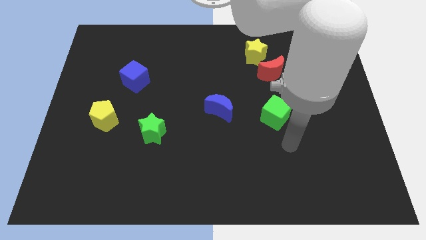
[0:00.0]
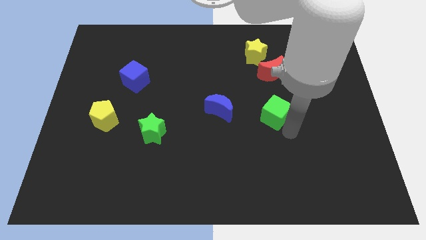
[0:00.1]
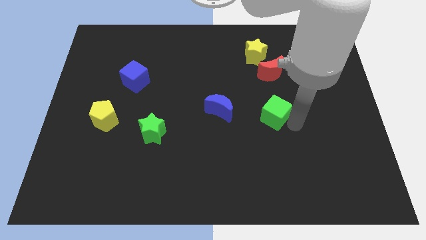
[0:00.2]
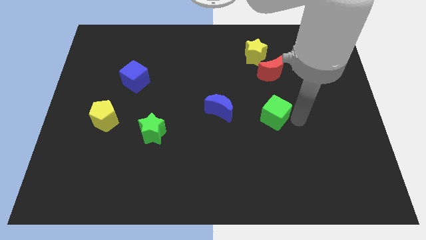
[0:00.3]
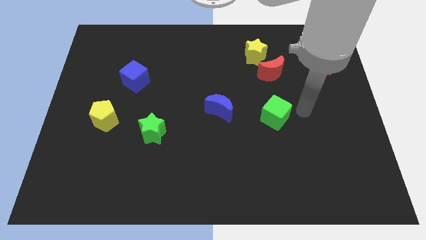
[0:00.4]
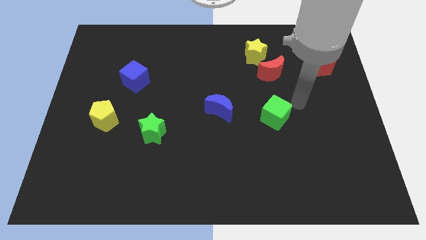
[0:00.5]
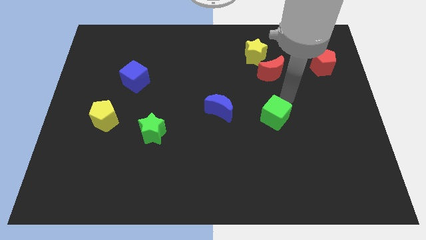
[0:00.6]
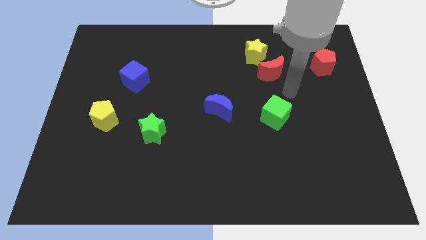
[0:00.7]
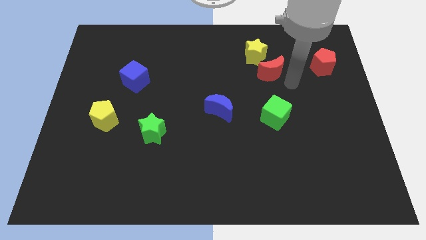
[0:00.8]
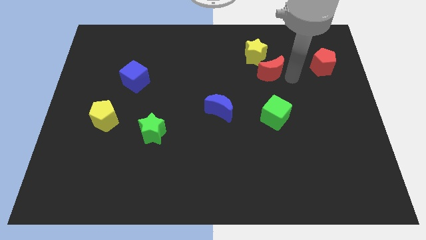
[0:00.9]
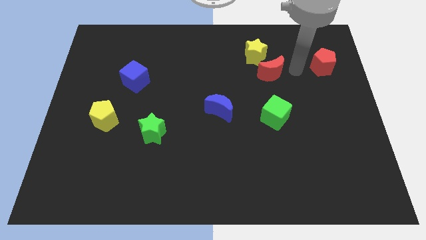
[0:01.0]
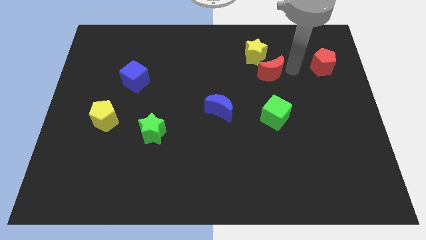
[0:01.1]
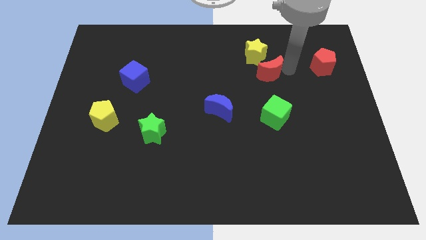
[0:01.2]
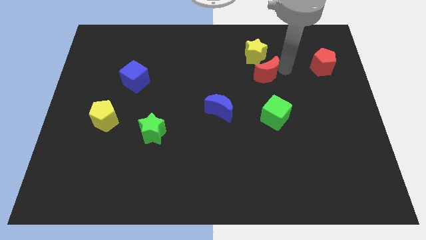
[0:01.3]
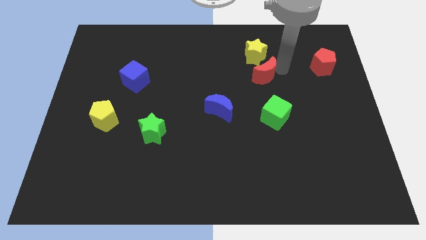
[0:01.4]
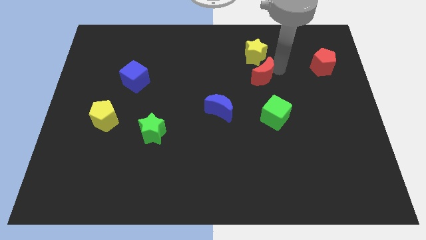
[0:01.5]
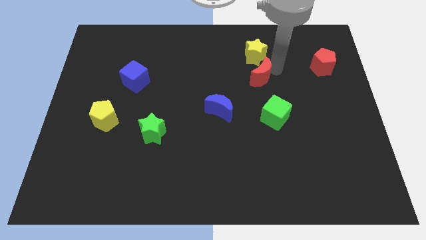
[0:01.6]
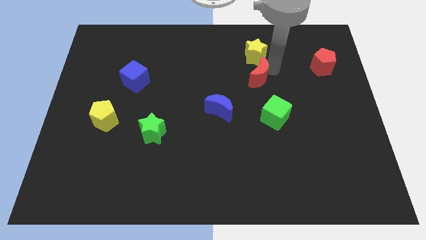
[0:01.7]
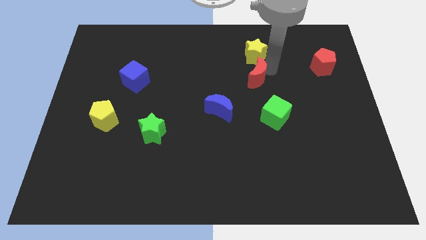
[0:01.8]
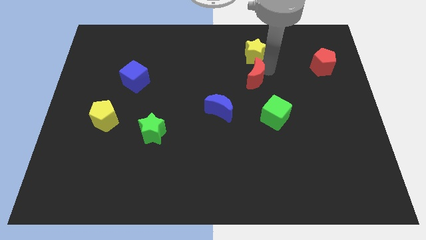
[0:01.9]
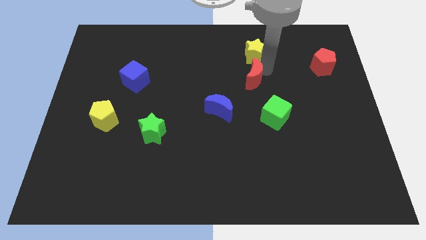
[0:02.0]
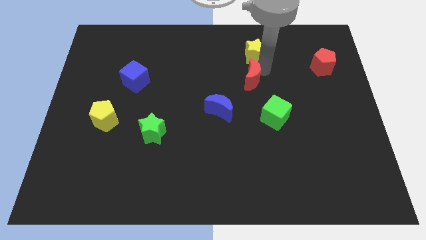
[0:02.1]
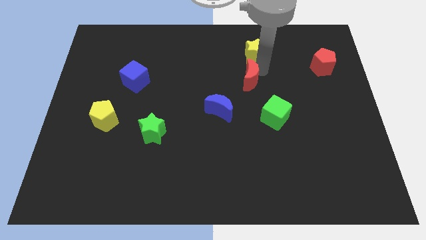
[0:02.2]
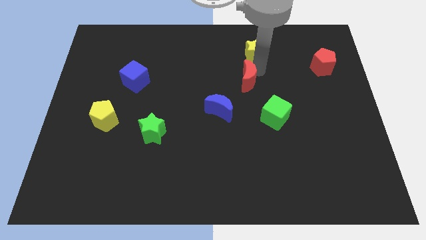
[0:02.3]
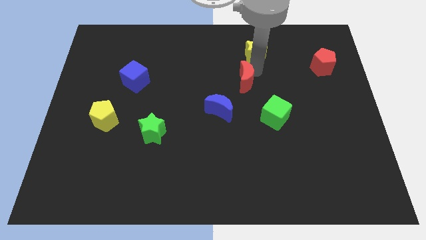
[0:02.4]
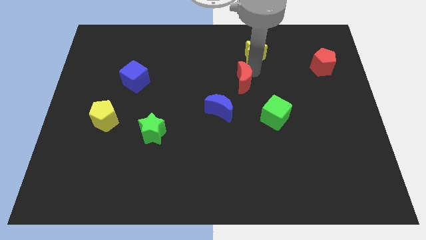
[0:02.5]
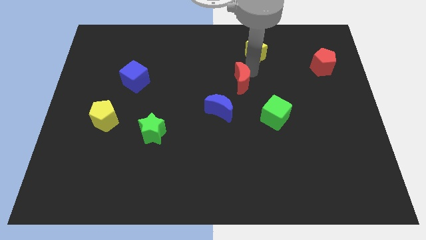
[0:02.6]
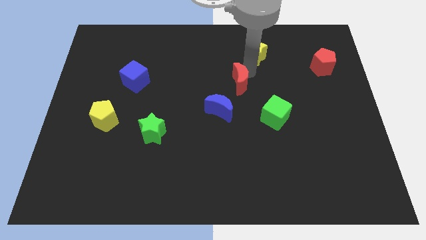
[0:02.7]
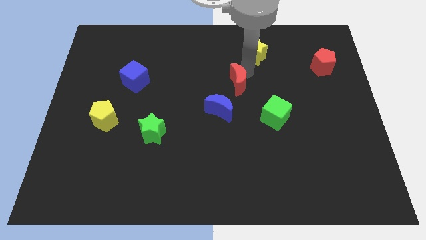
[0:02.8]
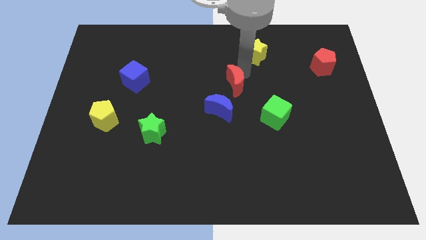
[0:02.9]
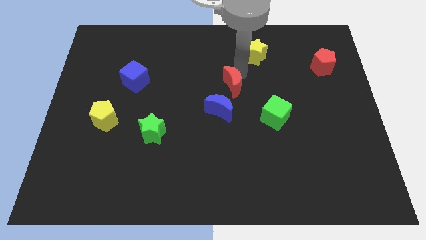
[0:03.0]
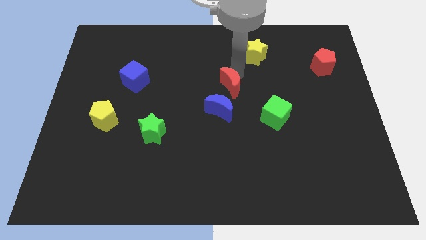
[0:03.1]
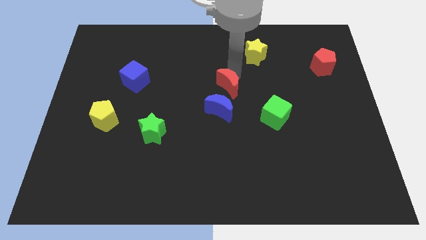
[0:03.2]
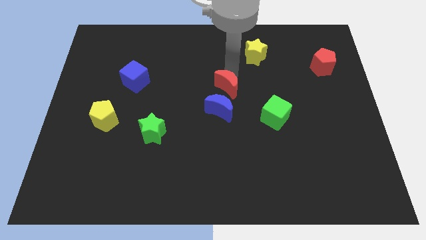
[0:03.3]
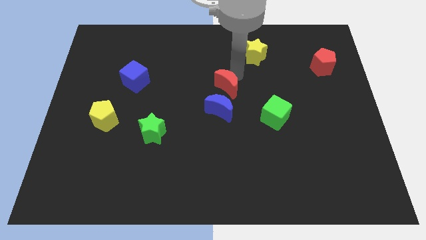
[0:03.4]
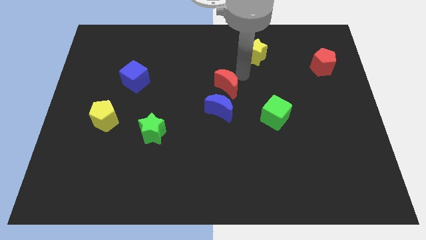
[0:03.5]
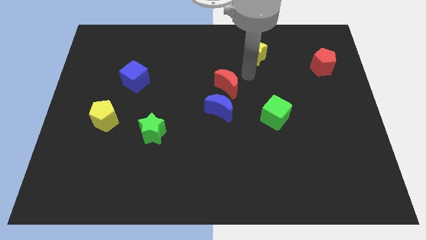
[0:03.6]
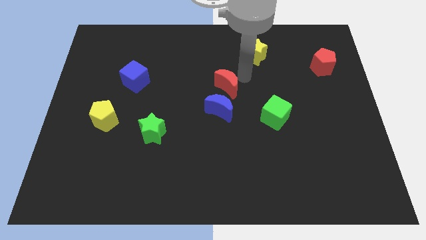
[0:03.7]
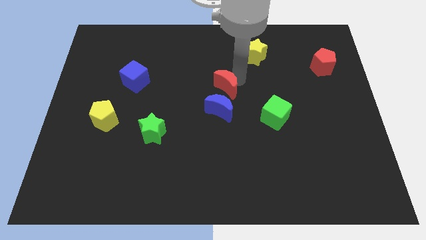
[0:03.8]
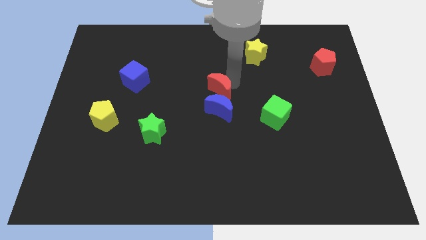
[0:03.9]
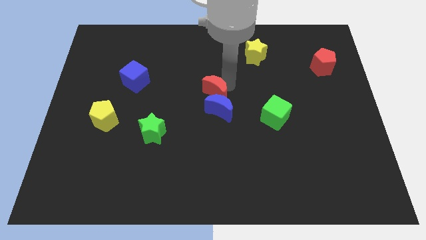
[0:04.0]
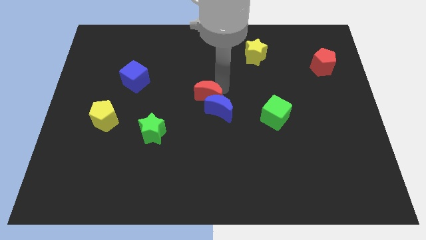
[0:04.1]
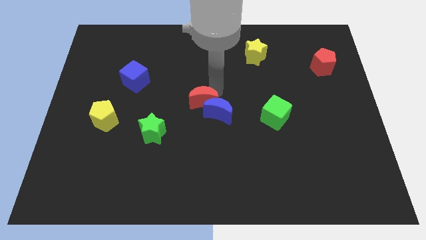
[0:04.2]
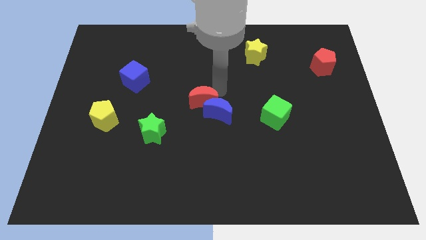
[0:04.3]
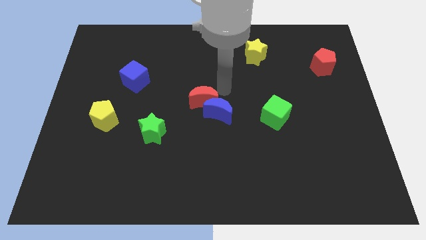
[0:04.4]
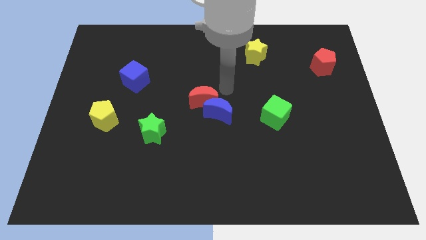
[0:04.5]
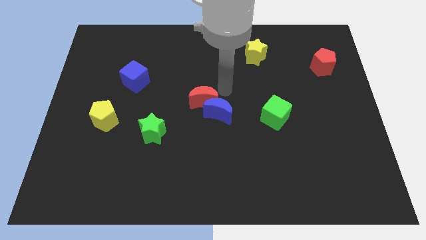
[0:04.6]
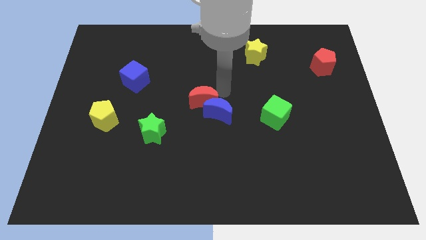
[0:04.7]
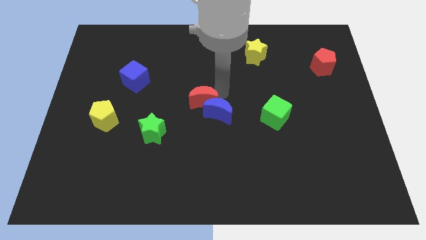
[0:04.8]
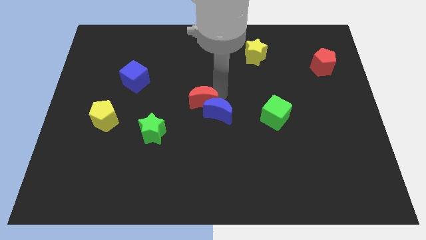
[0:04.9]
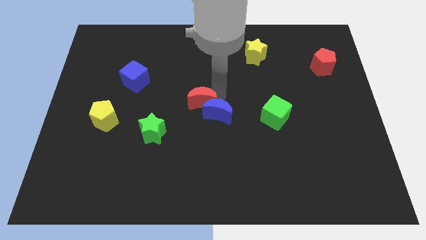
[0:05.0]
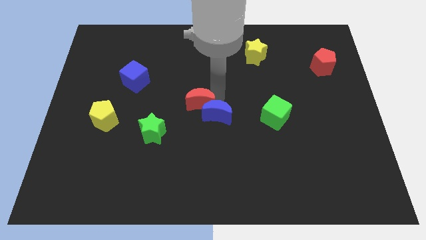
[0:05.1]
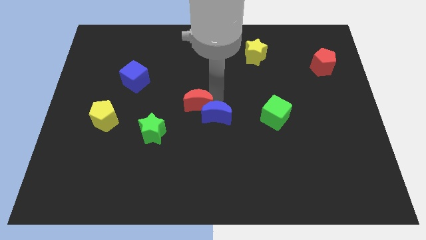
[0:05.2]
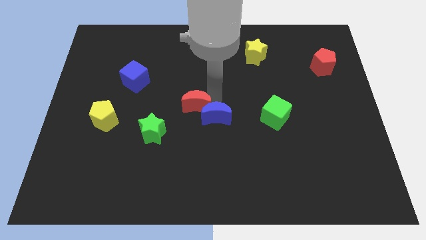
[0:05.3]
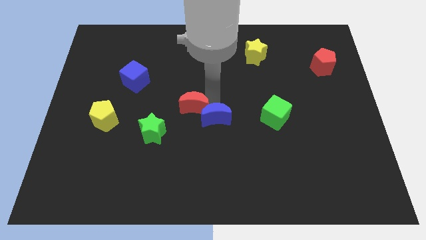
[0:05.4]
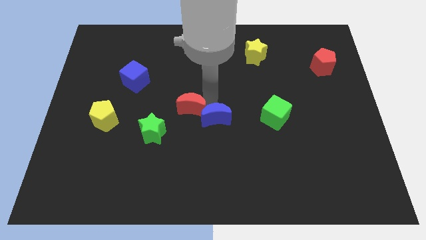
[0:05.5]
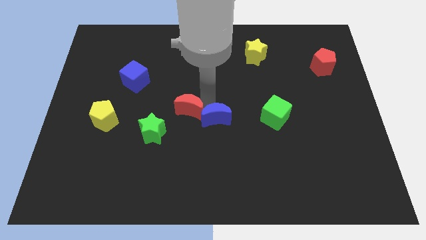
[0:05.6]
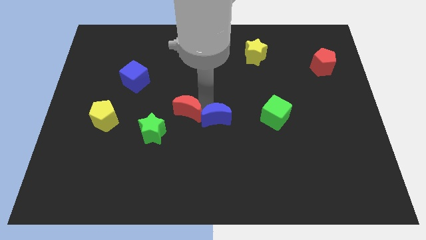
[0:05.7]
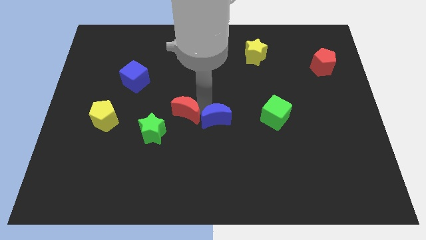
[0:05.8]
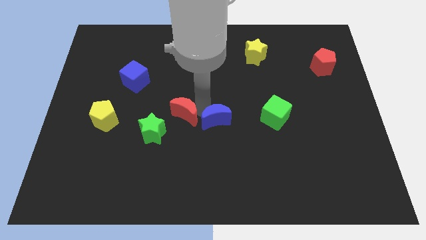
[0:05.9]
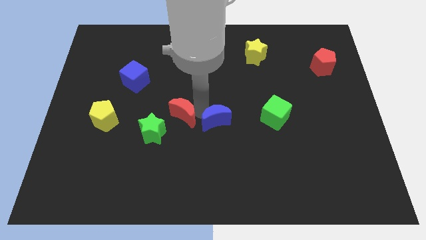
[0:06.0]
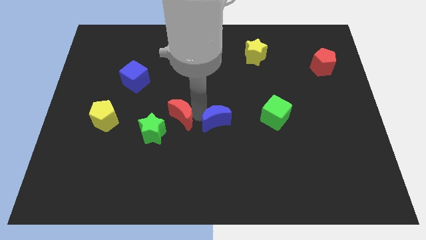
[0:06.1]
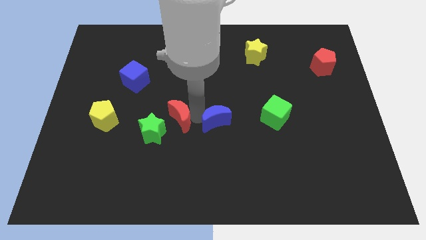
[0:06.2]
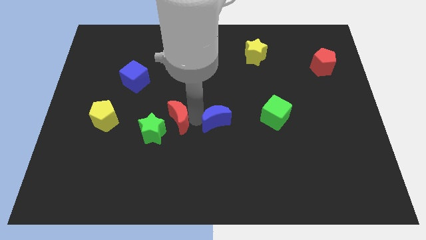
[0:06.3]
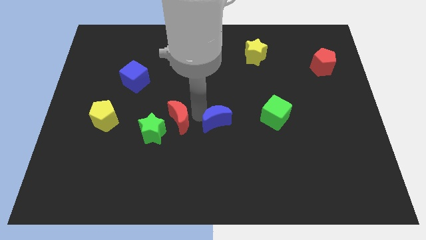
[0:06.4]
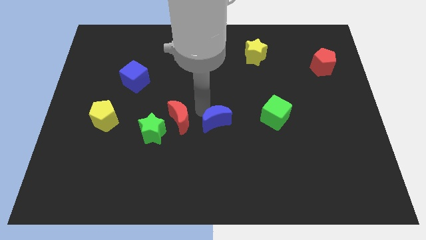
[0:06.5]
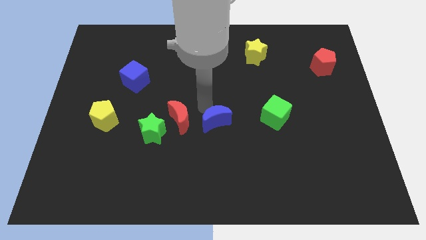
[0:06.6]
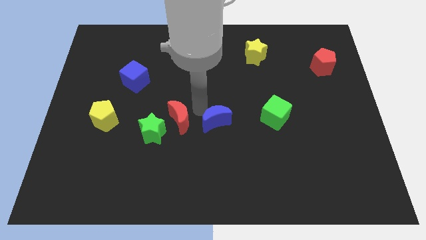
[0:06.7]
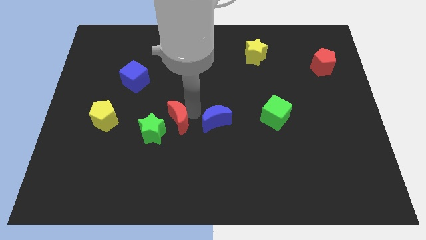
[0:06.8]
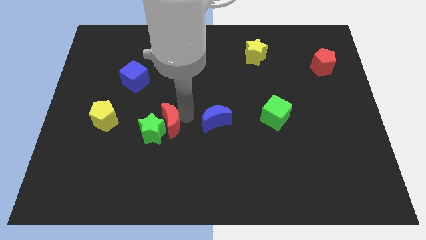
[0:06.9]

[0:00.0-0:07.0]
slide the red moon close to the green star
